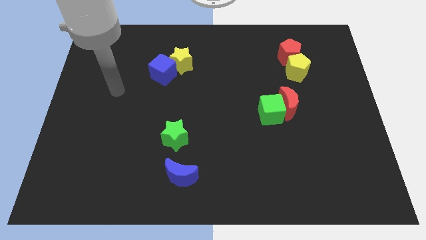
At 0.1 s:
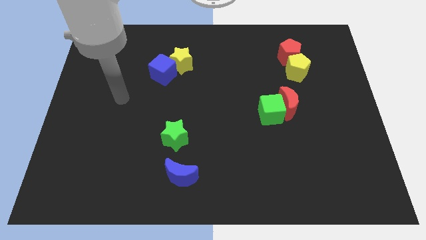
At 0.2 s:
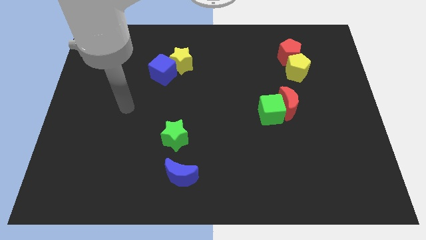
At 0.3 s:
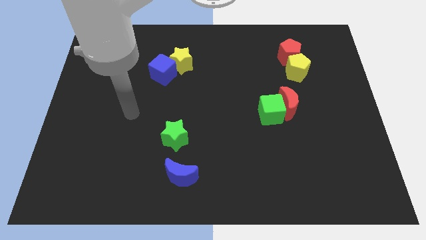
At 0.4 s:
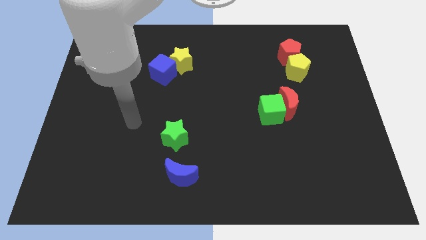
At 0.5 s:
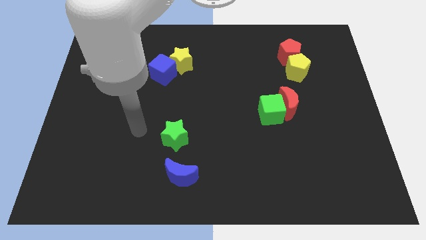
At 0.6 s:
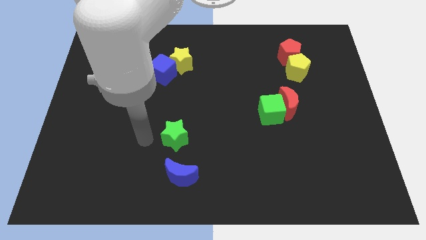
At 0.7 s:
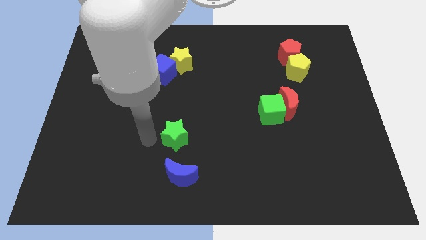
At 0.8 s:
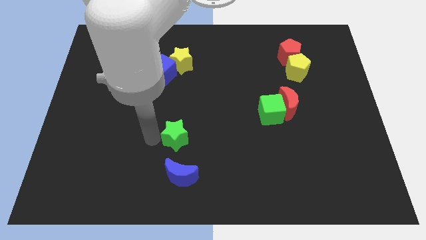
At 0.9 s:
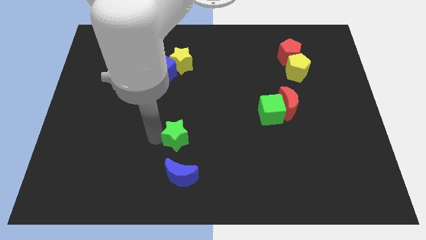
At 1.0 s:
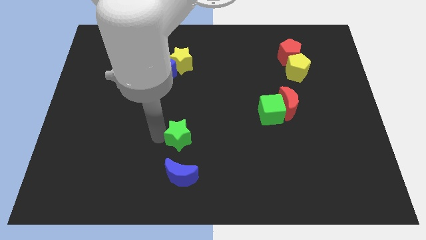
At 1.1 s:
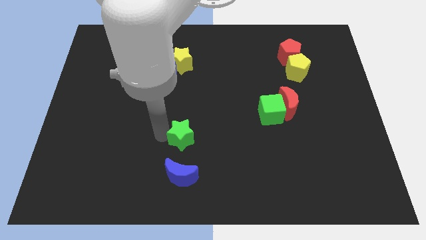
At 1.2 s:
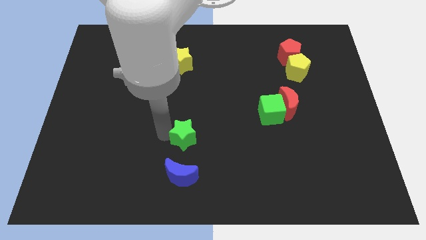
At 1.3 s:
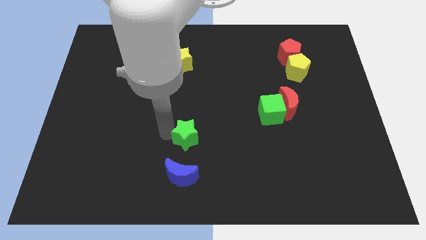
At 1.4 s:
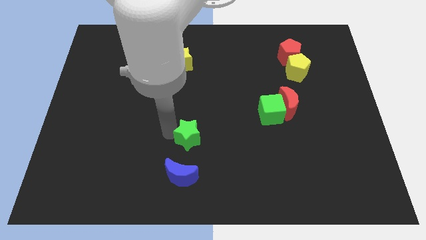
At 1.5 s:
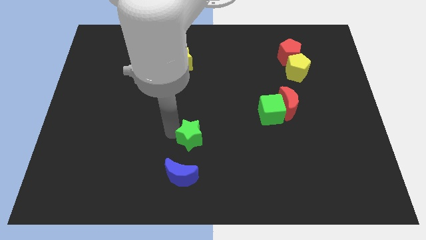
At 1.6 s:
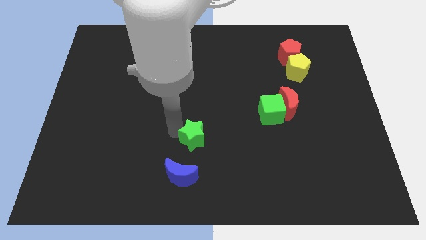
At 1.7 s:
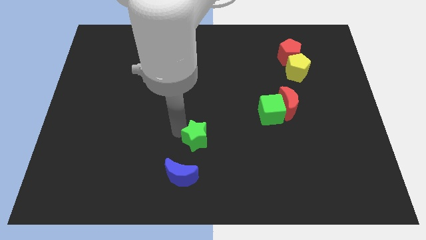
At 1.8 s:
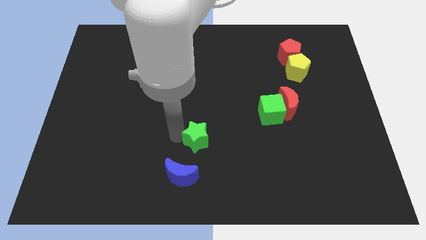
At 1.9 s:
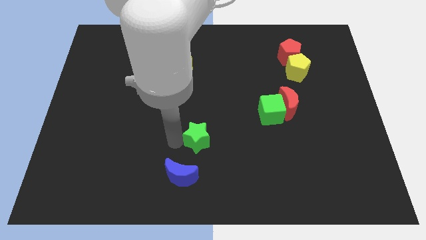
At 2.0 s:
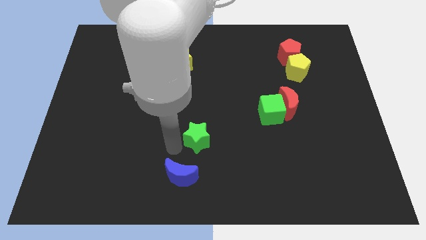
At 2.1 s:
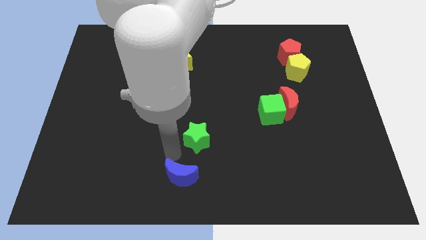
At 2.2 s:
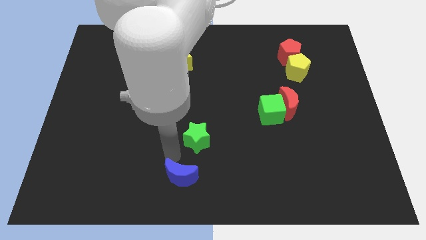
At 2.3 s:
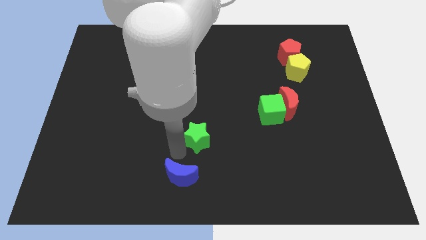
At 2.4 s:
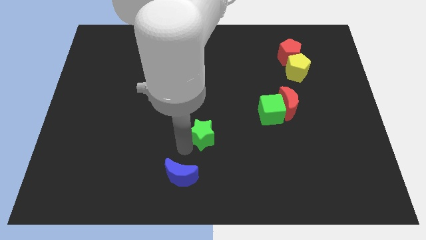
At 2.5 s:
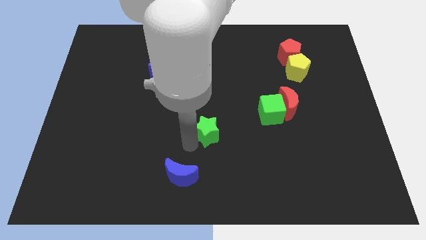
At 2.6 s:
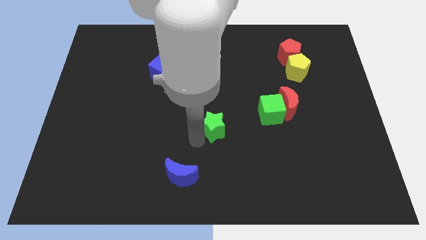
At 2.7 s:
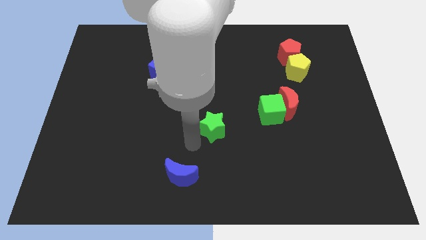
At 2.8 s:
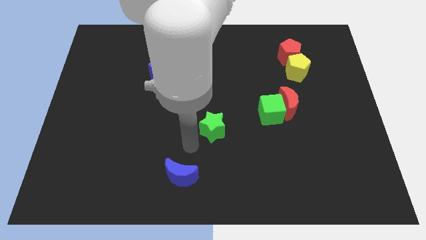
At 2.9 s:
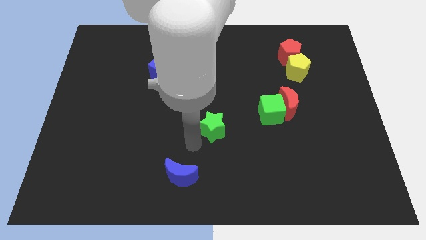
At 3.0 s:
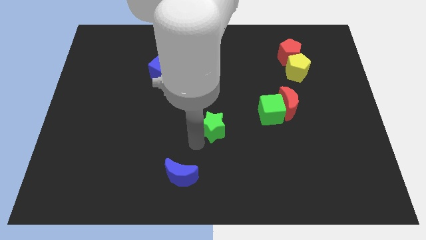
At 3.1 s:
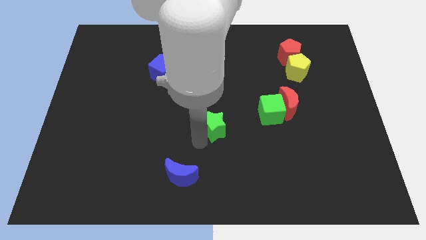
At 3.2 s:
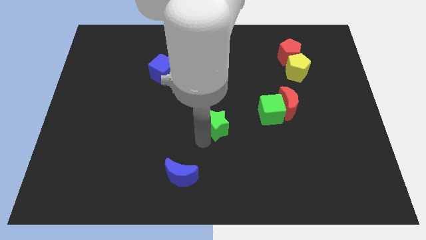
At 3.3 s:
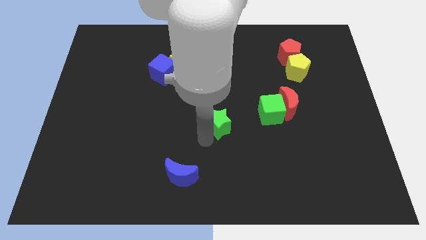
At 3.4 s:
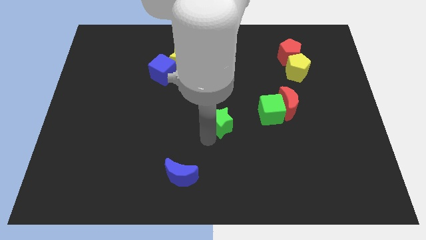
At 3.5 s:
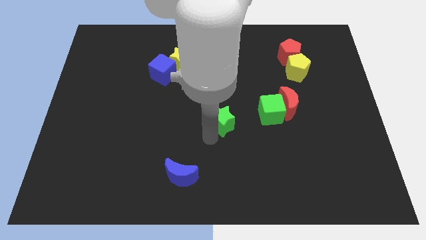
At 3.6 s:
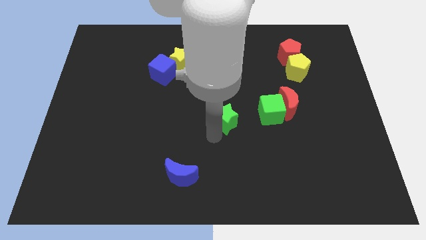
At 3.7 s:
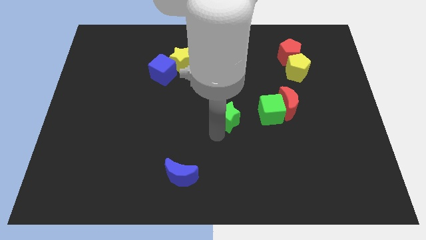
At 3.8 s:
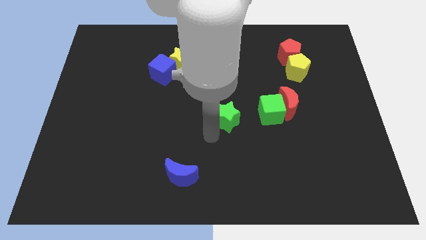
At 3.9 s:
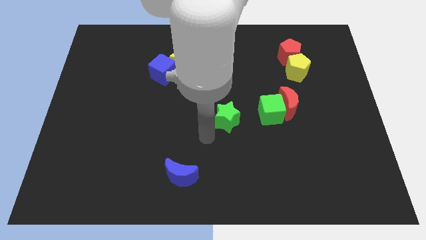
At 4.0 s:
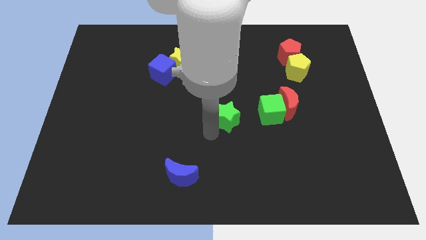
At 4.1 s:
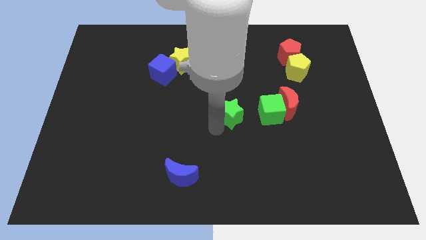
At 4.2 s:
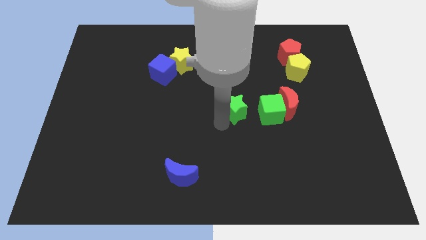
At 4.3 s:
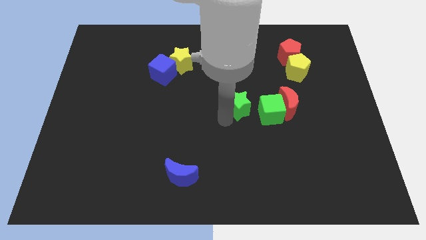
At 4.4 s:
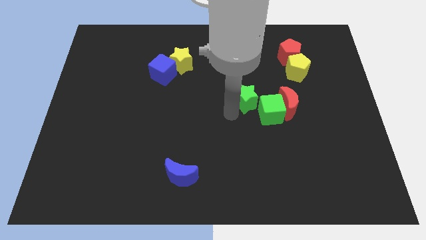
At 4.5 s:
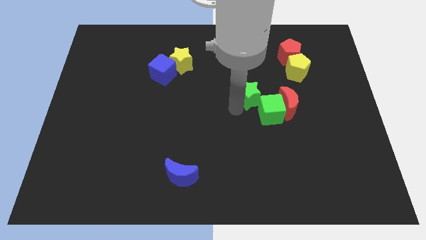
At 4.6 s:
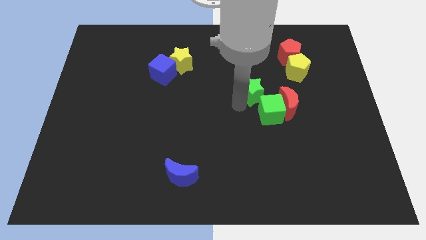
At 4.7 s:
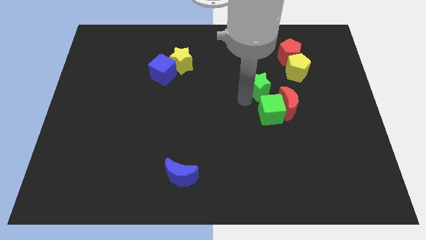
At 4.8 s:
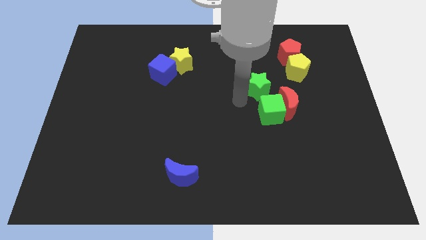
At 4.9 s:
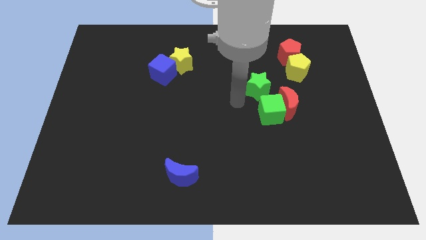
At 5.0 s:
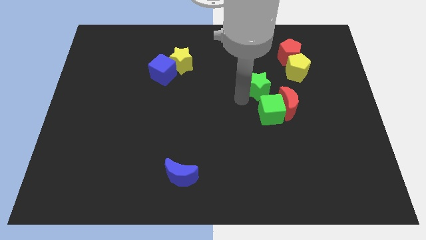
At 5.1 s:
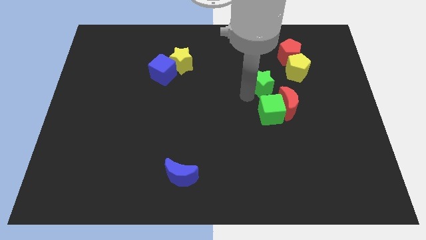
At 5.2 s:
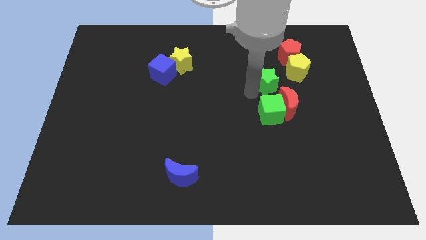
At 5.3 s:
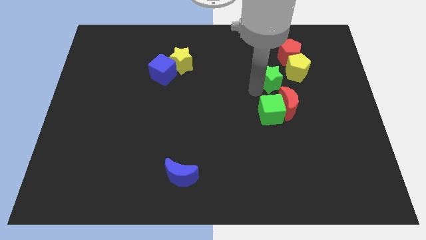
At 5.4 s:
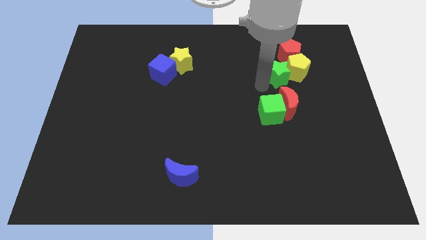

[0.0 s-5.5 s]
move the green star towards the yellow pentagon

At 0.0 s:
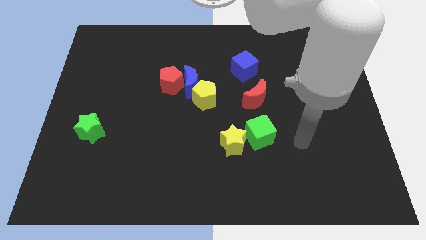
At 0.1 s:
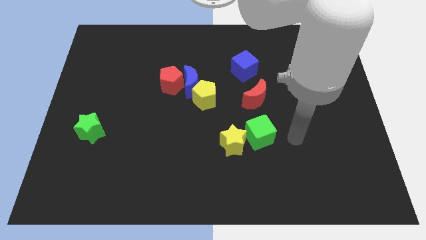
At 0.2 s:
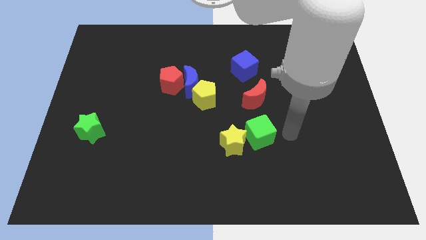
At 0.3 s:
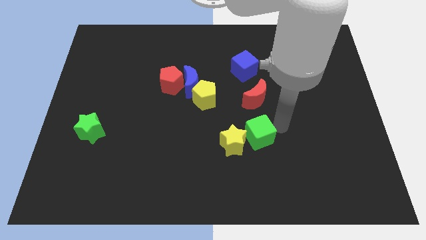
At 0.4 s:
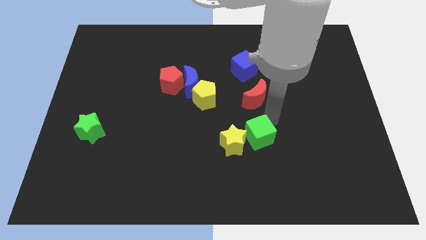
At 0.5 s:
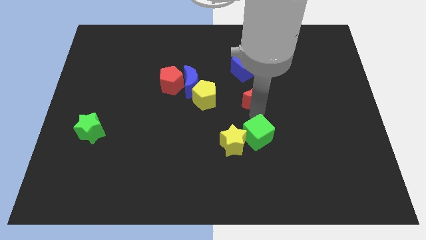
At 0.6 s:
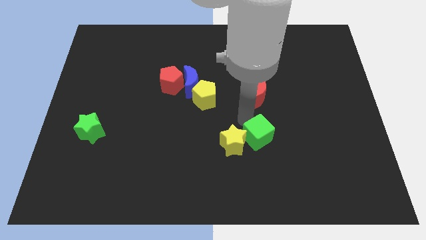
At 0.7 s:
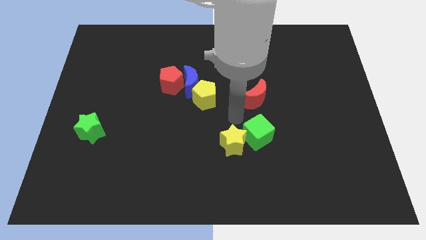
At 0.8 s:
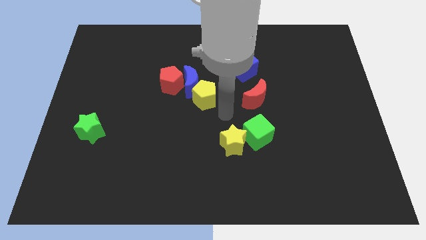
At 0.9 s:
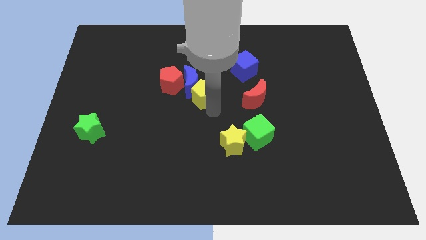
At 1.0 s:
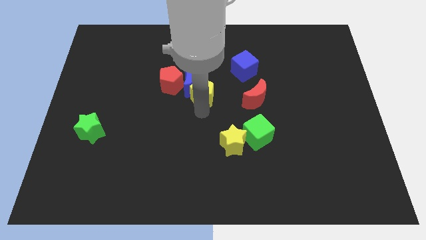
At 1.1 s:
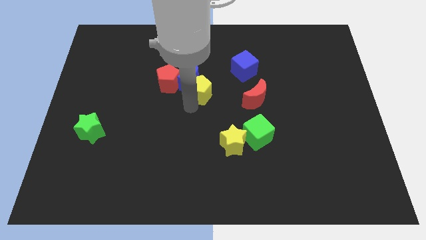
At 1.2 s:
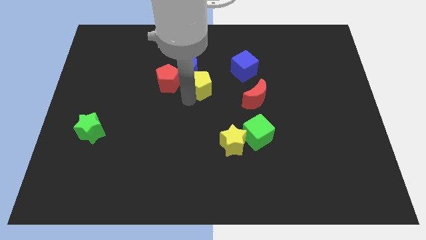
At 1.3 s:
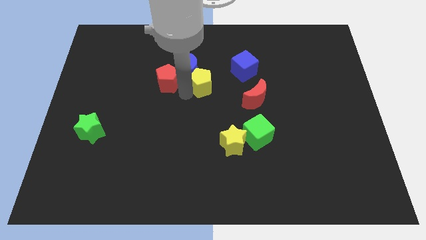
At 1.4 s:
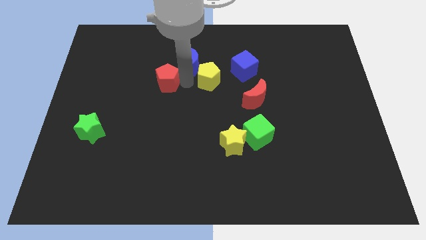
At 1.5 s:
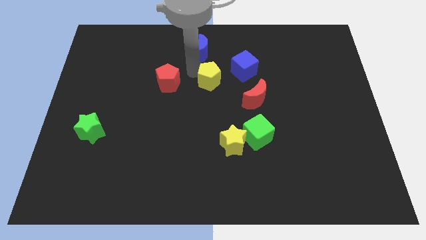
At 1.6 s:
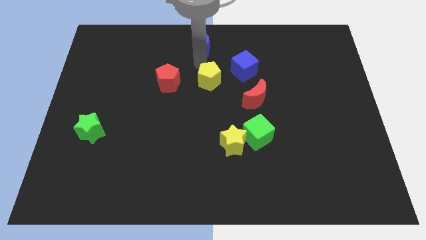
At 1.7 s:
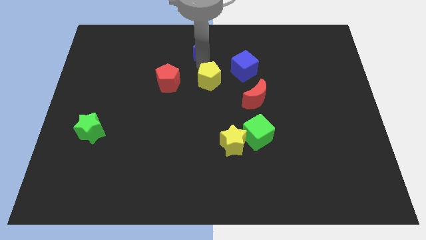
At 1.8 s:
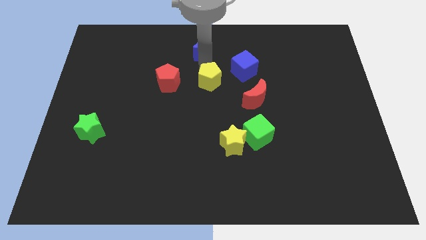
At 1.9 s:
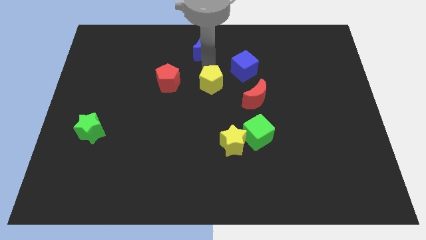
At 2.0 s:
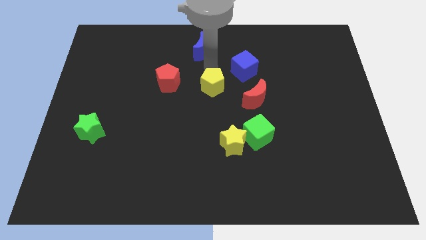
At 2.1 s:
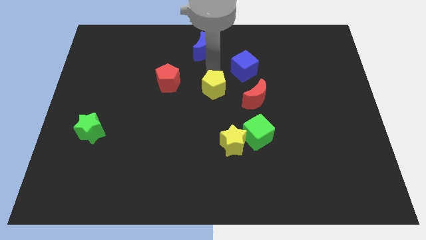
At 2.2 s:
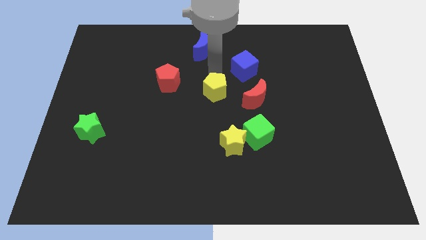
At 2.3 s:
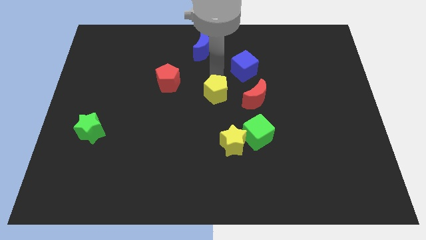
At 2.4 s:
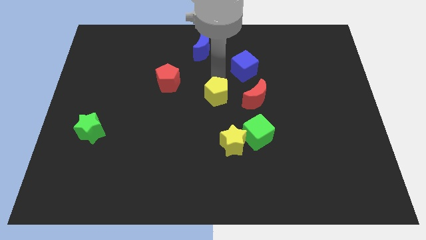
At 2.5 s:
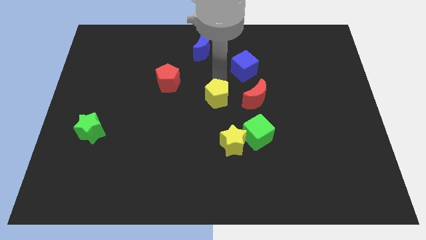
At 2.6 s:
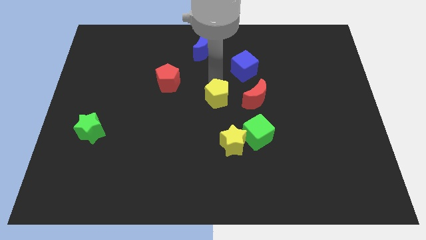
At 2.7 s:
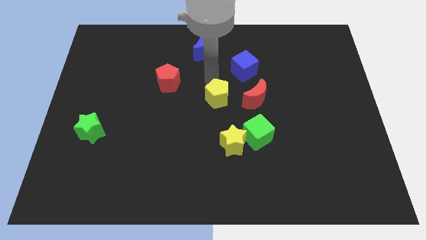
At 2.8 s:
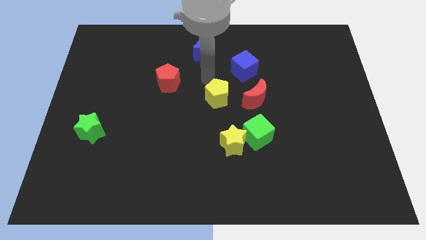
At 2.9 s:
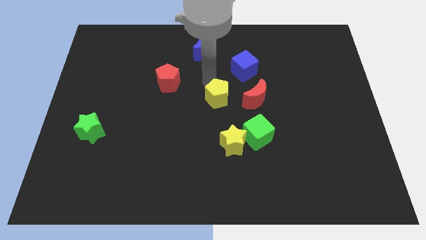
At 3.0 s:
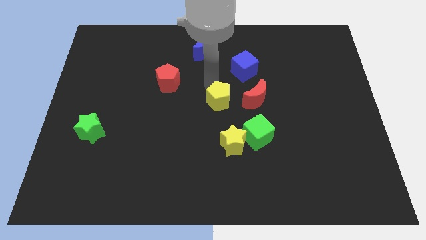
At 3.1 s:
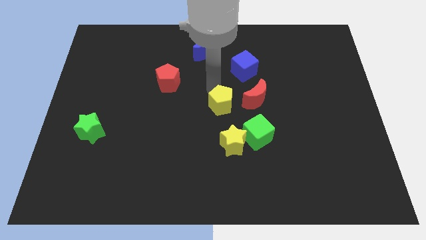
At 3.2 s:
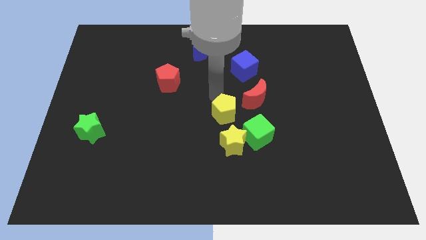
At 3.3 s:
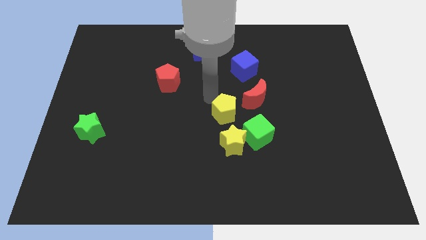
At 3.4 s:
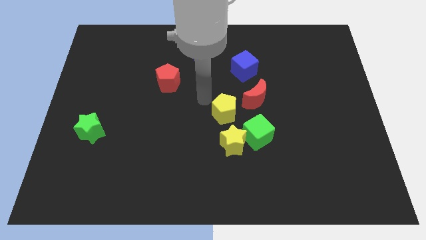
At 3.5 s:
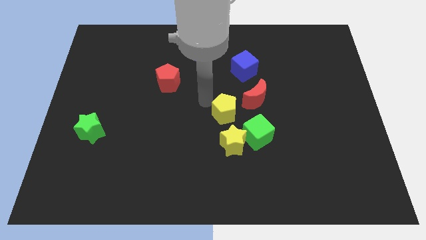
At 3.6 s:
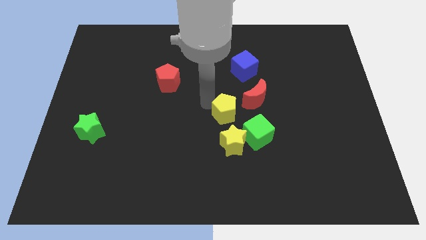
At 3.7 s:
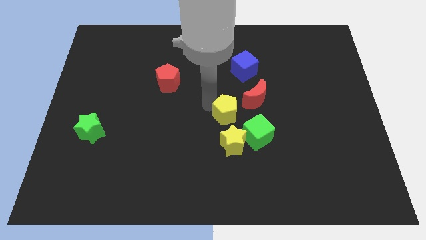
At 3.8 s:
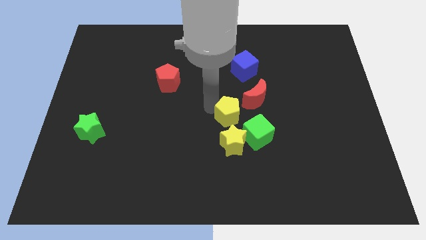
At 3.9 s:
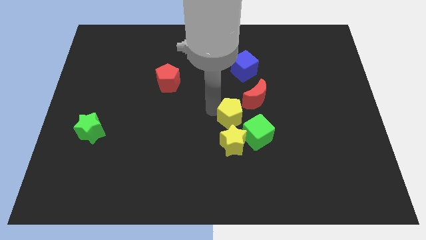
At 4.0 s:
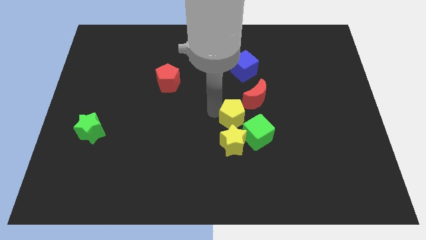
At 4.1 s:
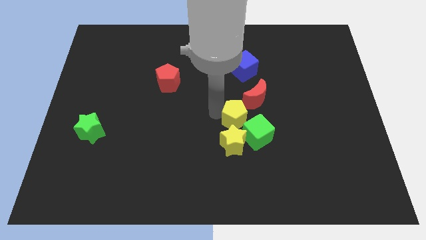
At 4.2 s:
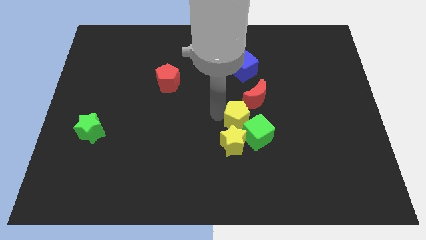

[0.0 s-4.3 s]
put the yellow pentagon to the green cube
